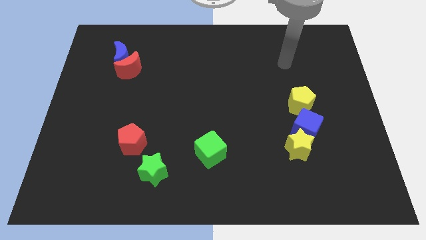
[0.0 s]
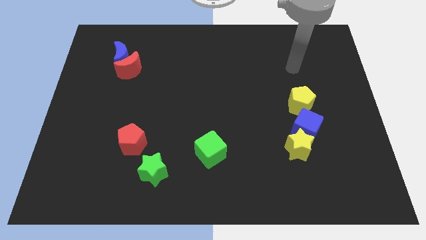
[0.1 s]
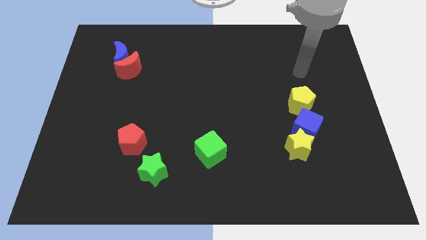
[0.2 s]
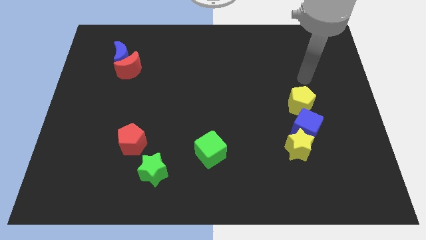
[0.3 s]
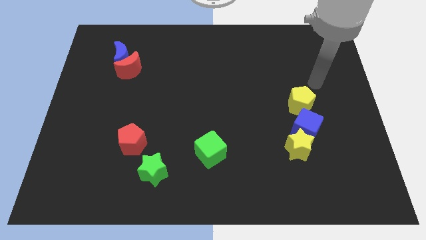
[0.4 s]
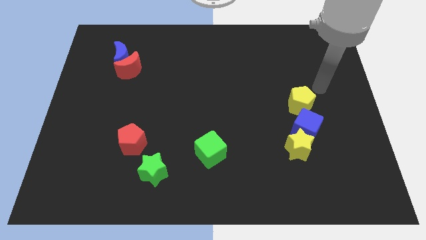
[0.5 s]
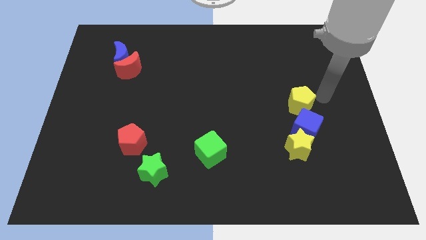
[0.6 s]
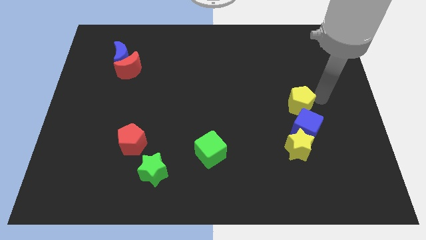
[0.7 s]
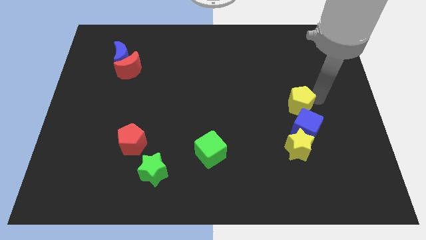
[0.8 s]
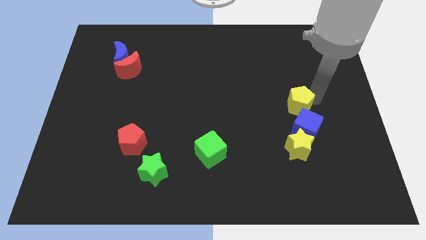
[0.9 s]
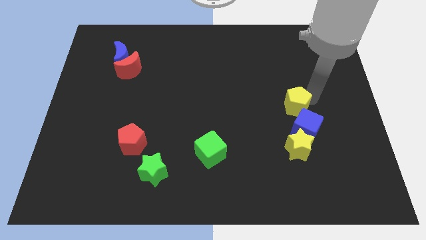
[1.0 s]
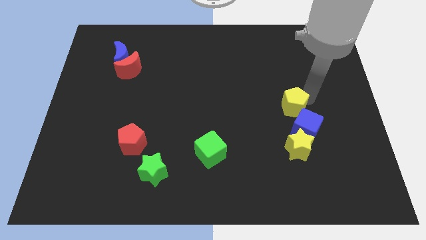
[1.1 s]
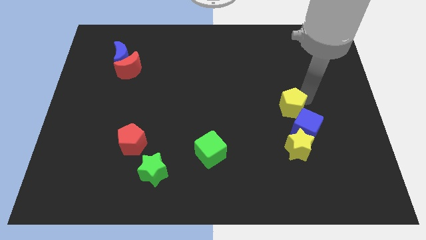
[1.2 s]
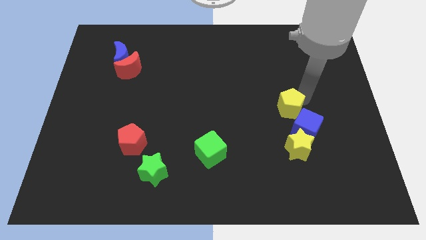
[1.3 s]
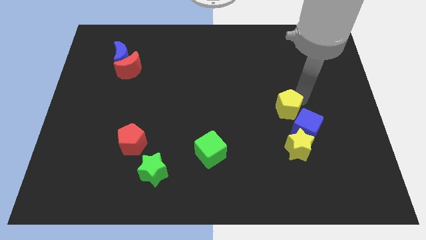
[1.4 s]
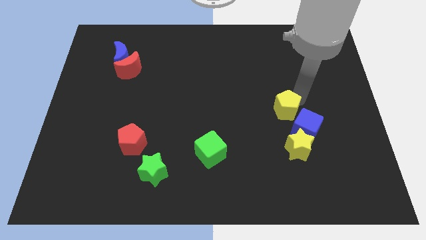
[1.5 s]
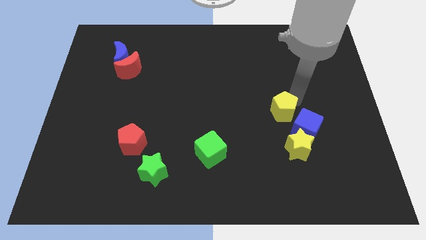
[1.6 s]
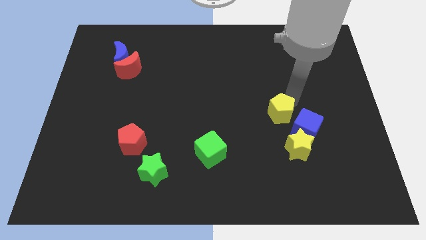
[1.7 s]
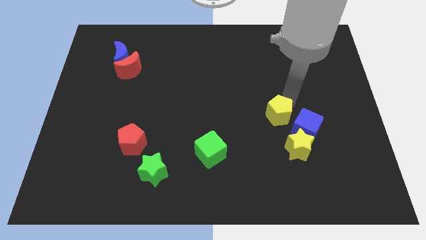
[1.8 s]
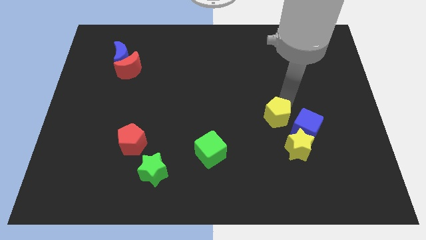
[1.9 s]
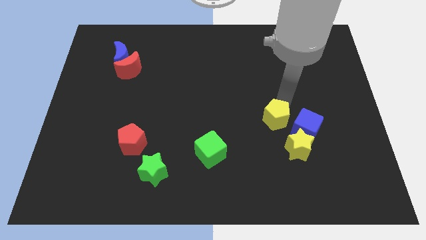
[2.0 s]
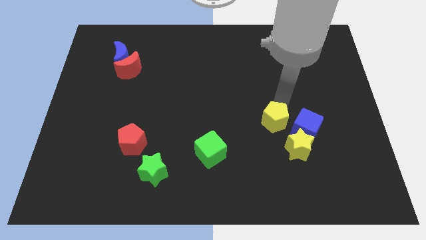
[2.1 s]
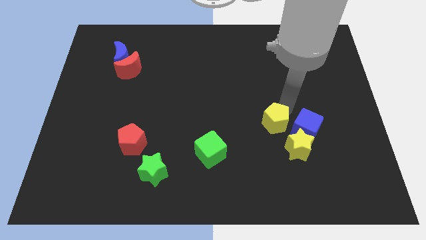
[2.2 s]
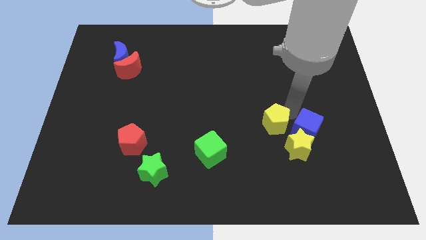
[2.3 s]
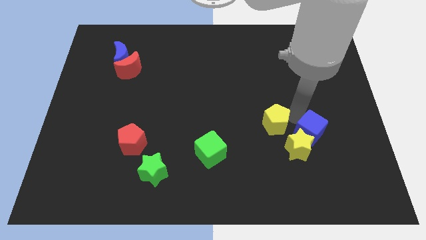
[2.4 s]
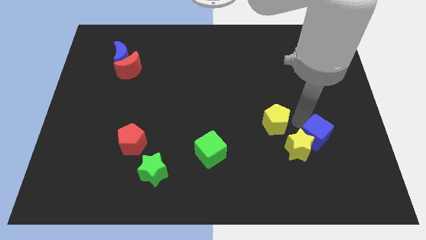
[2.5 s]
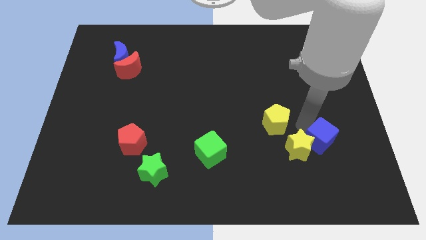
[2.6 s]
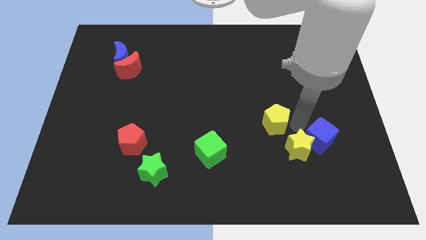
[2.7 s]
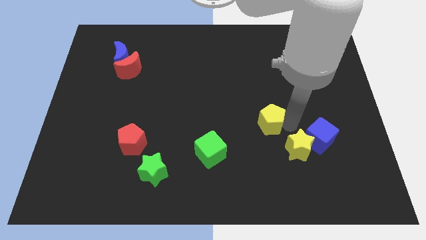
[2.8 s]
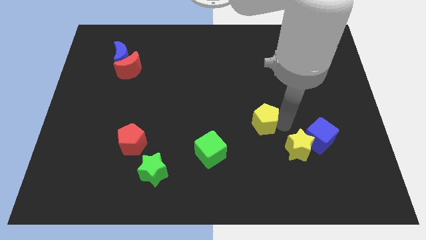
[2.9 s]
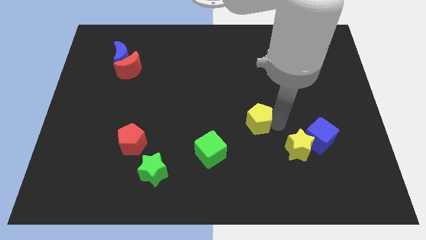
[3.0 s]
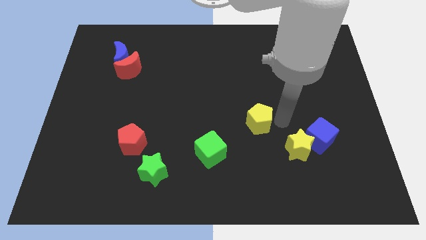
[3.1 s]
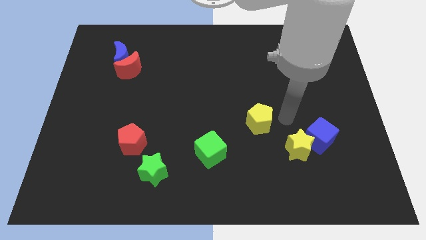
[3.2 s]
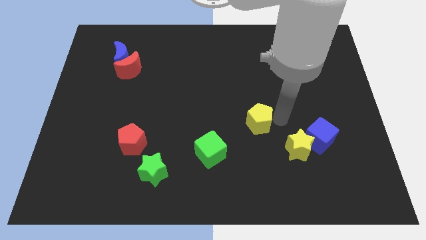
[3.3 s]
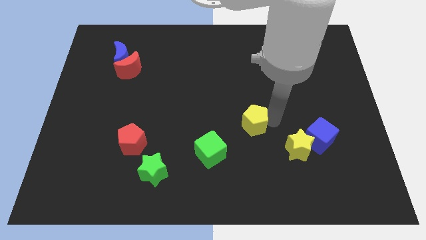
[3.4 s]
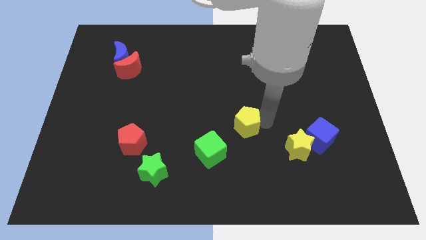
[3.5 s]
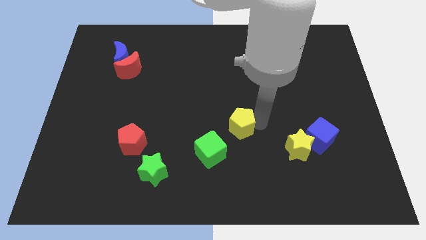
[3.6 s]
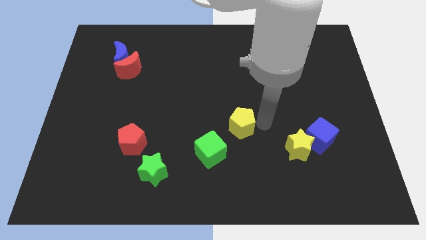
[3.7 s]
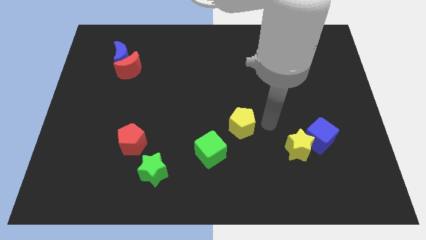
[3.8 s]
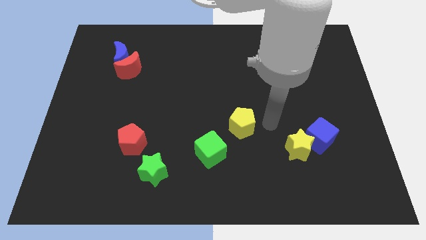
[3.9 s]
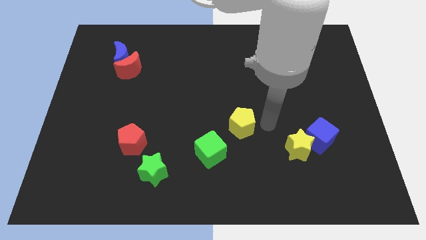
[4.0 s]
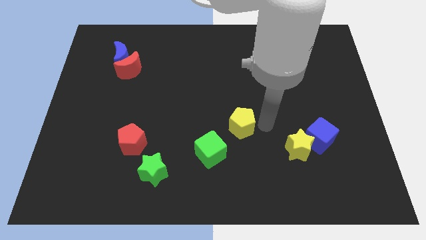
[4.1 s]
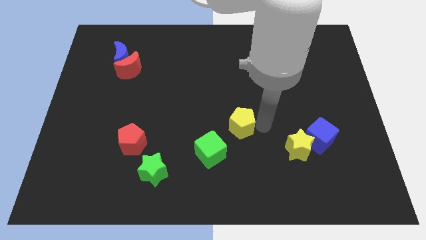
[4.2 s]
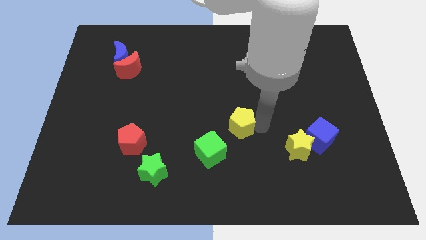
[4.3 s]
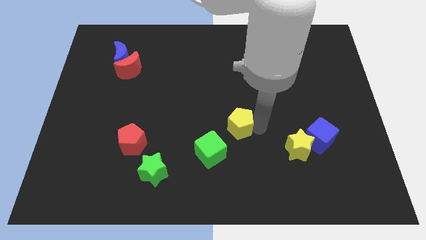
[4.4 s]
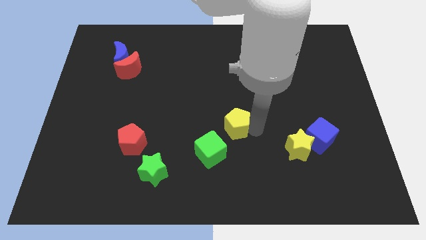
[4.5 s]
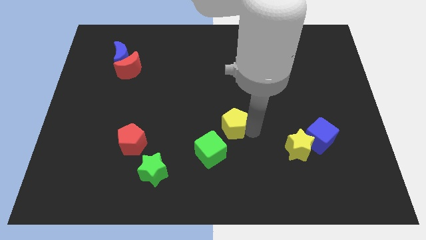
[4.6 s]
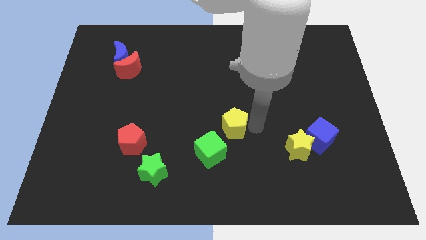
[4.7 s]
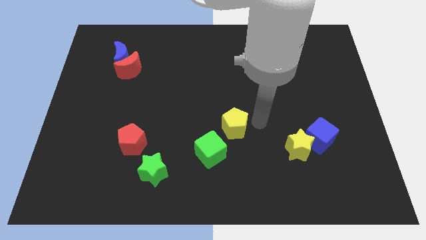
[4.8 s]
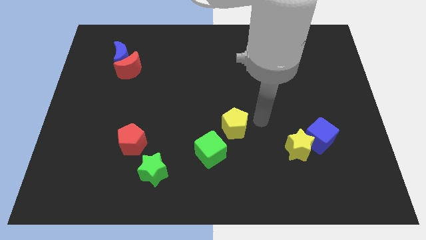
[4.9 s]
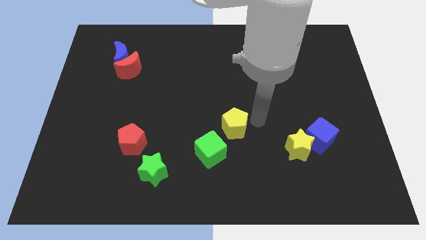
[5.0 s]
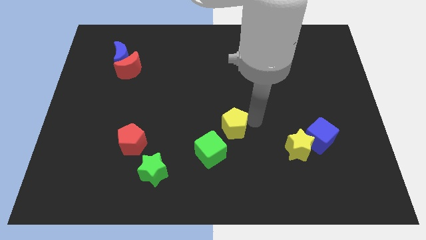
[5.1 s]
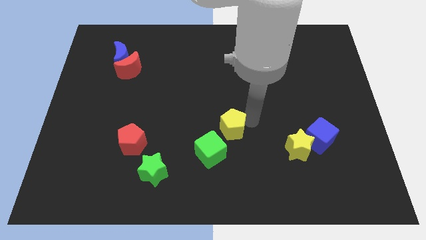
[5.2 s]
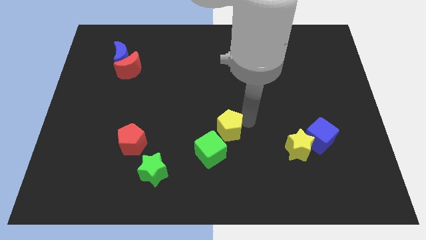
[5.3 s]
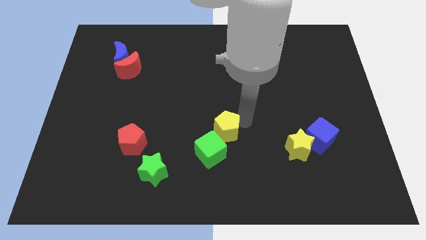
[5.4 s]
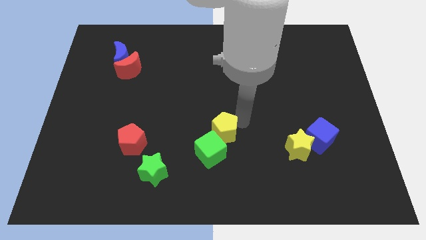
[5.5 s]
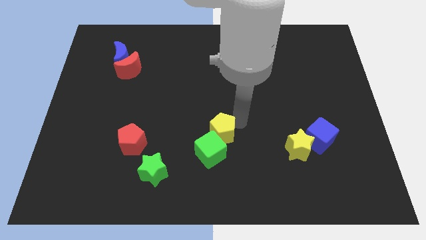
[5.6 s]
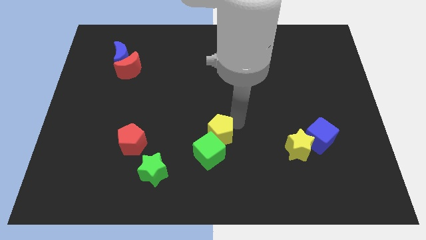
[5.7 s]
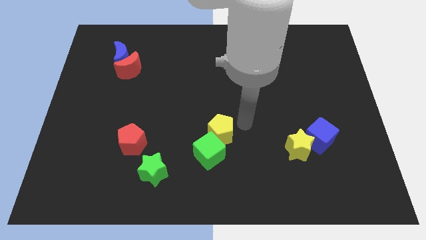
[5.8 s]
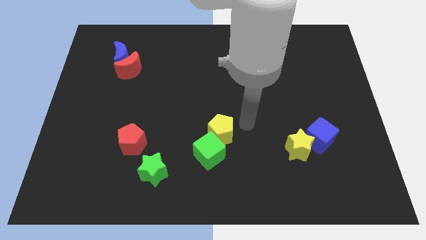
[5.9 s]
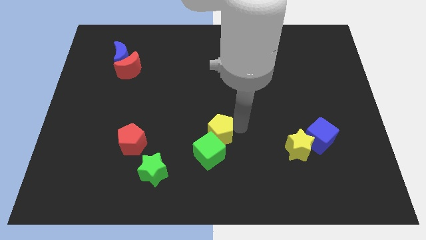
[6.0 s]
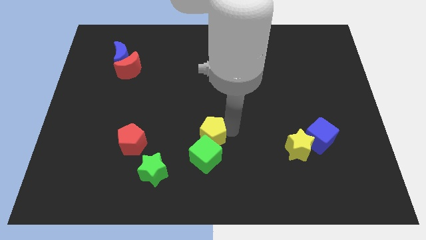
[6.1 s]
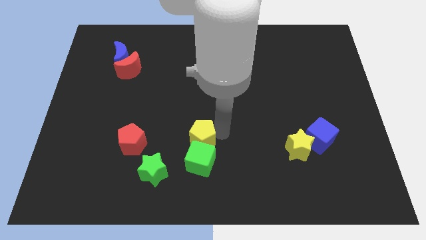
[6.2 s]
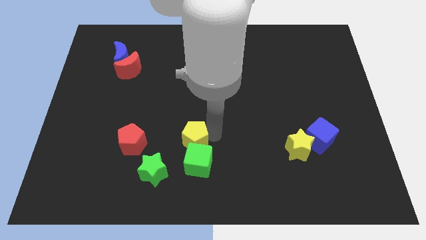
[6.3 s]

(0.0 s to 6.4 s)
move the yellow pentagon diagonally up and to the right of the green star

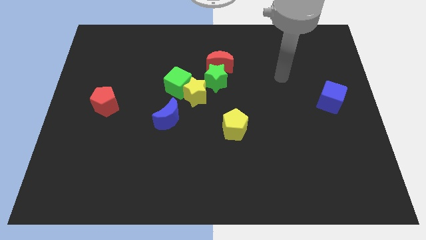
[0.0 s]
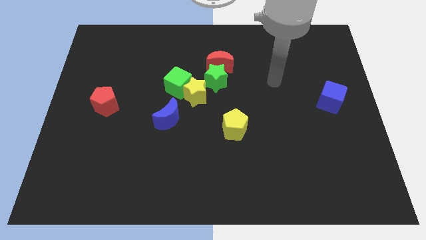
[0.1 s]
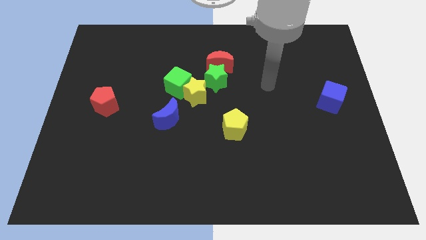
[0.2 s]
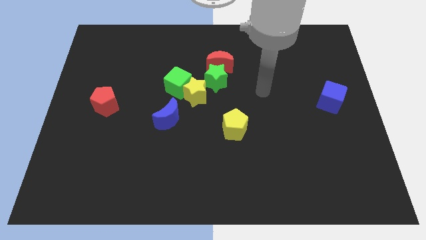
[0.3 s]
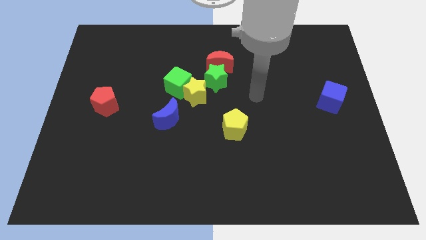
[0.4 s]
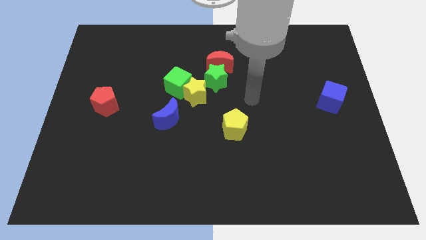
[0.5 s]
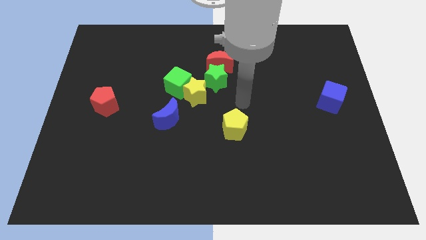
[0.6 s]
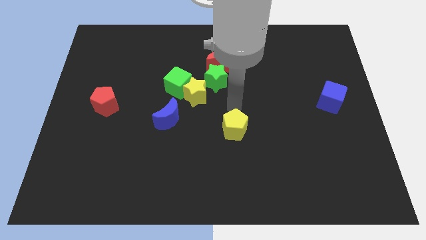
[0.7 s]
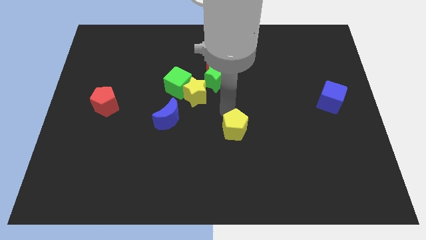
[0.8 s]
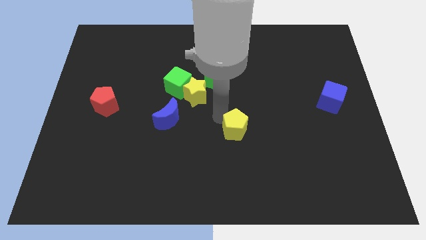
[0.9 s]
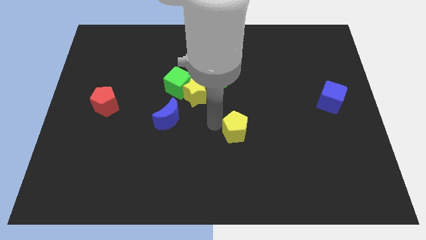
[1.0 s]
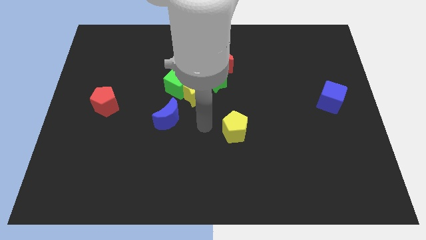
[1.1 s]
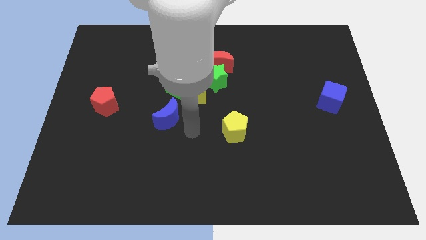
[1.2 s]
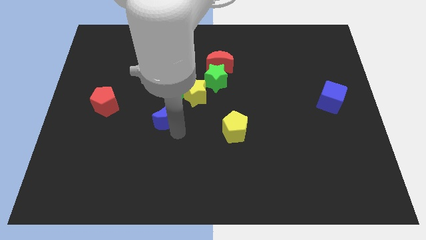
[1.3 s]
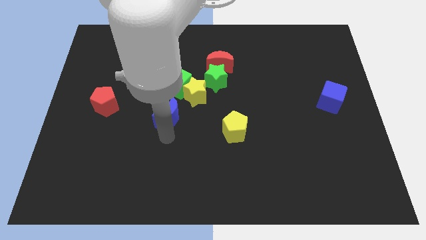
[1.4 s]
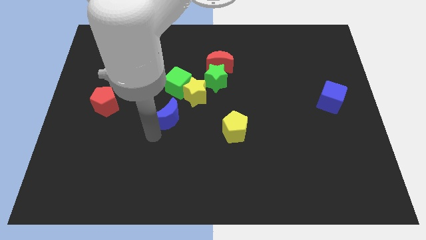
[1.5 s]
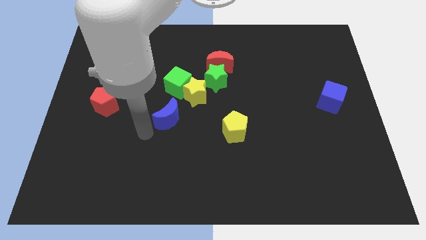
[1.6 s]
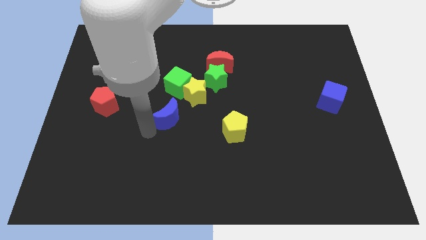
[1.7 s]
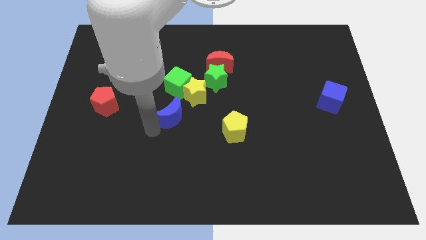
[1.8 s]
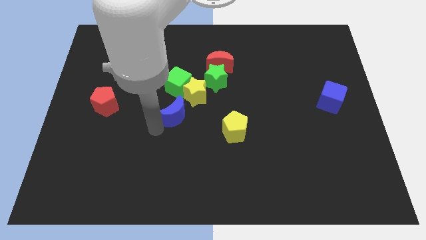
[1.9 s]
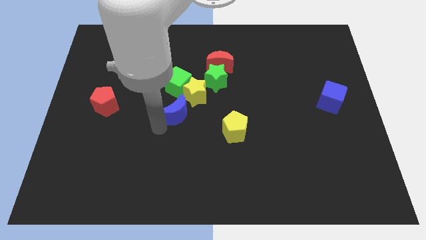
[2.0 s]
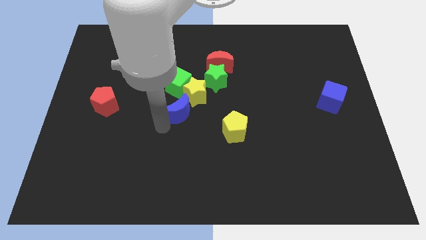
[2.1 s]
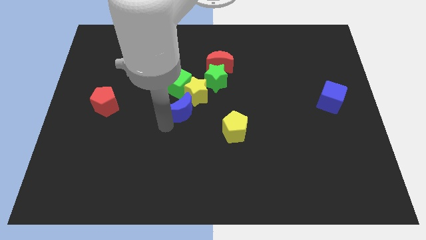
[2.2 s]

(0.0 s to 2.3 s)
put the blue moon diagonally down and to the right of the green cube
